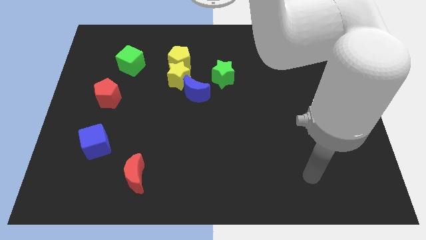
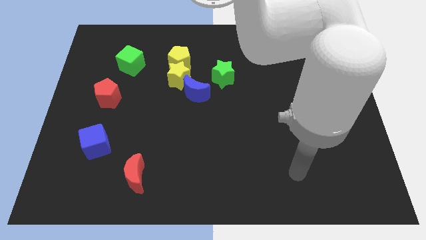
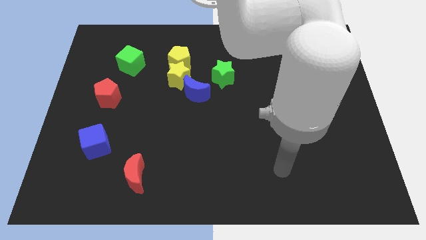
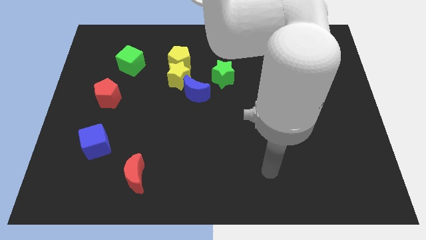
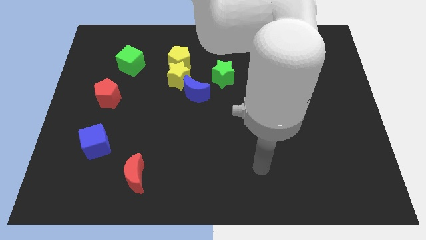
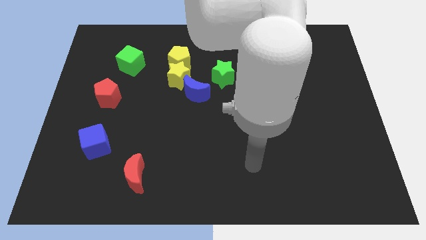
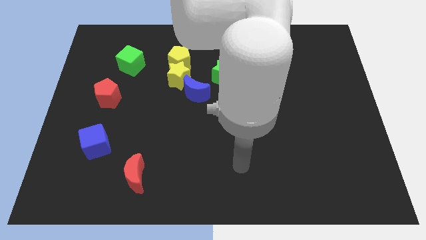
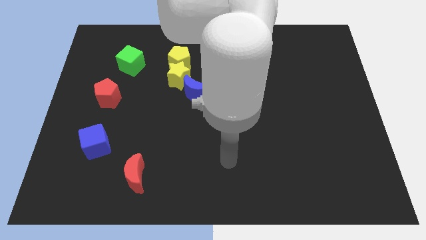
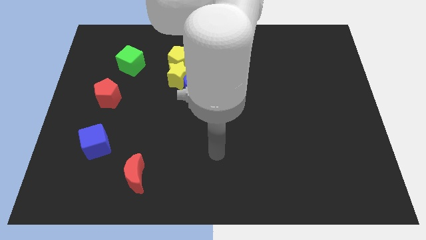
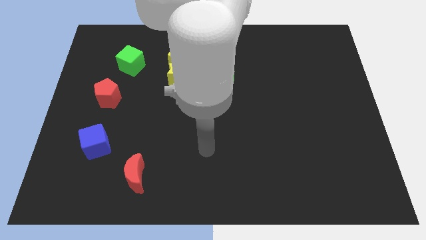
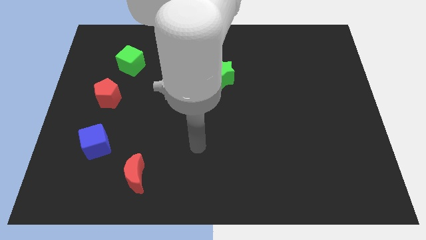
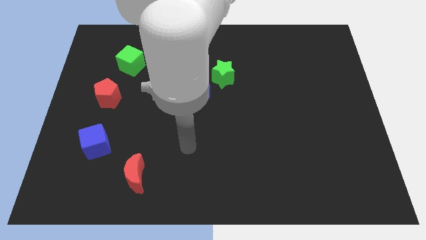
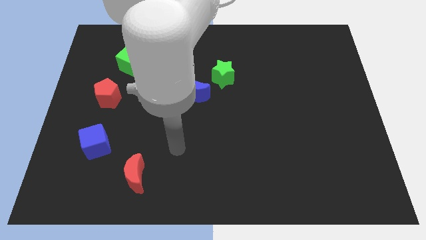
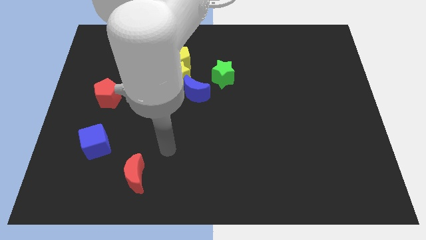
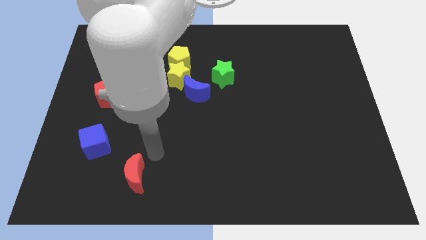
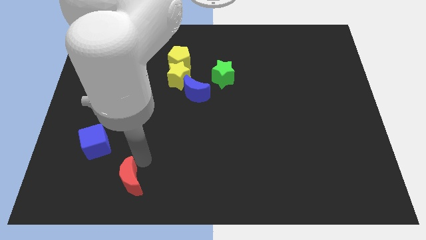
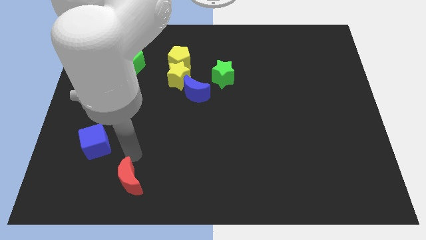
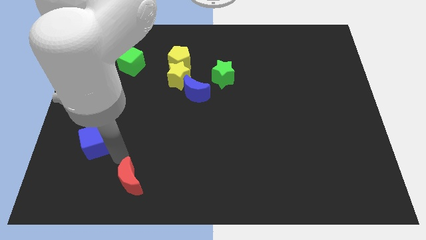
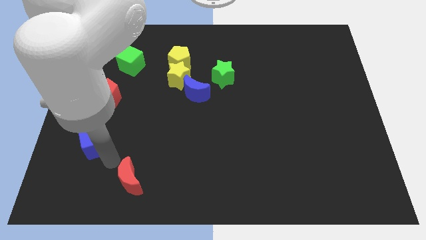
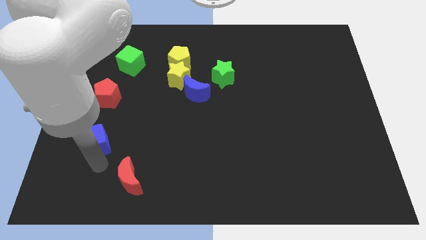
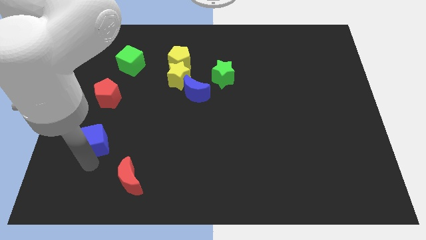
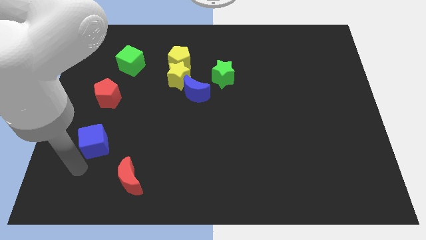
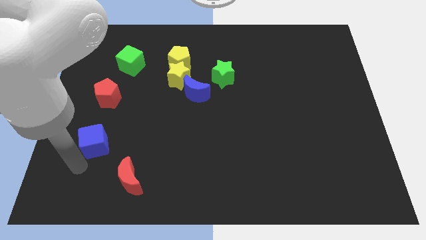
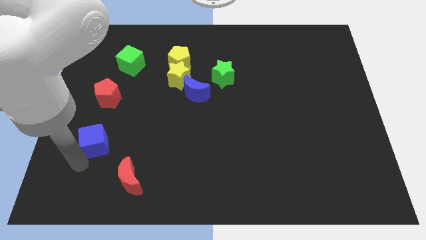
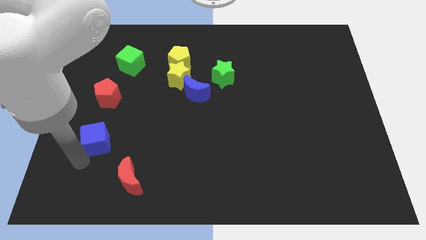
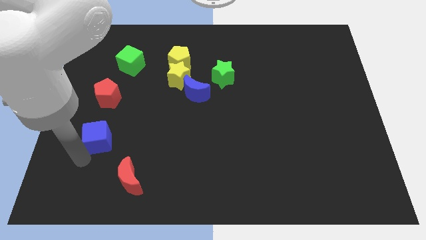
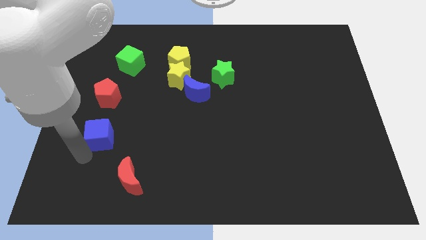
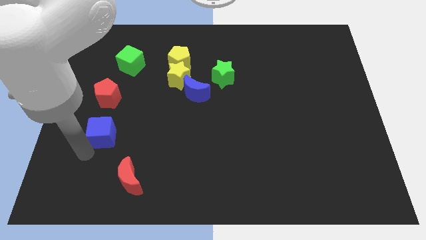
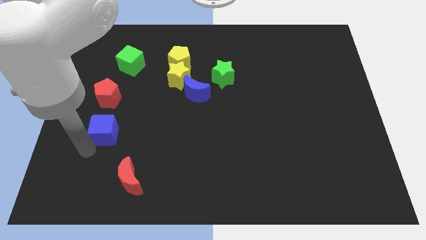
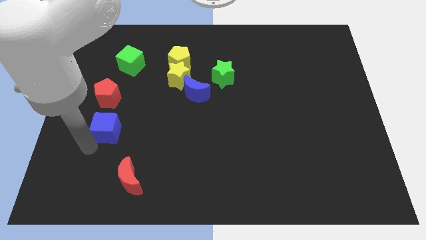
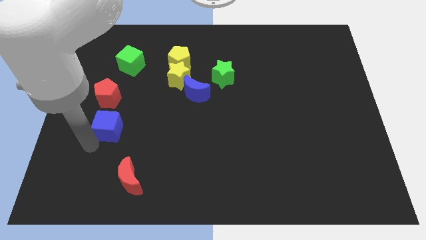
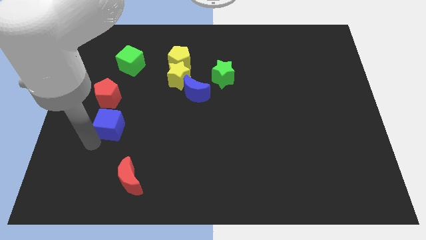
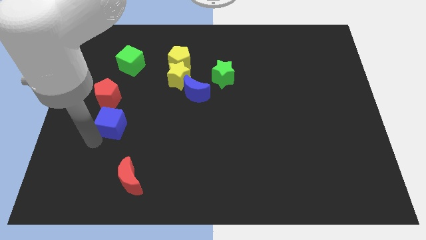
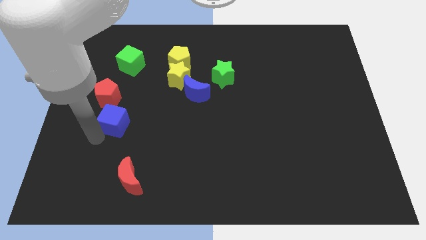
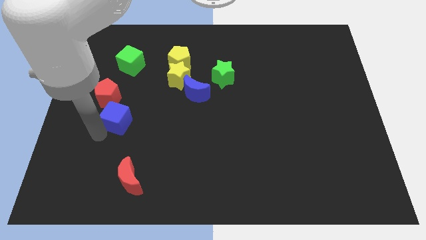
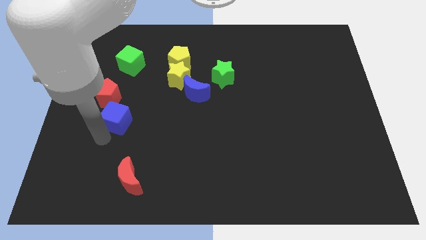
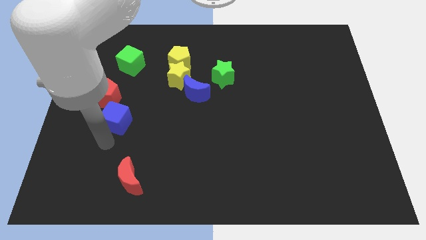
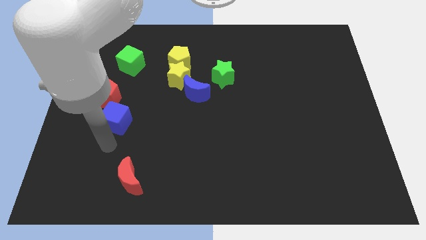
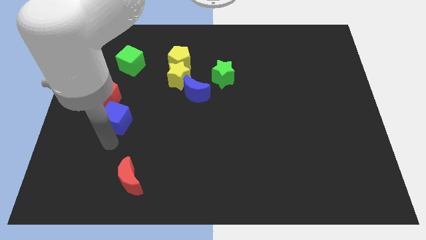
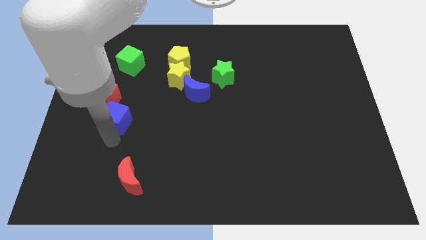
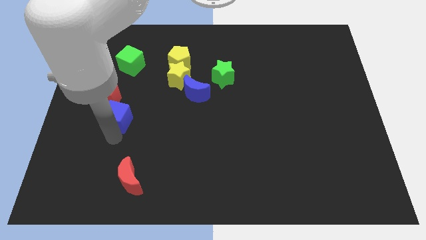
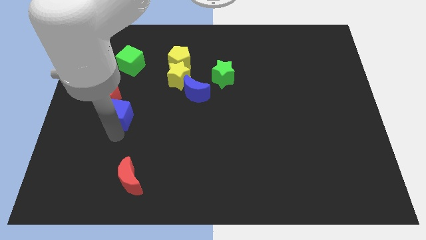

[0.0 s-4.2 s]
slightly move the blue cube upwards

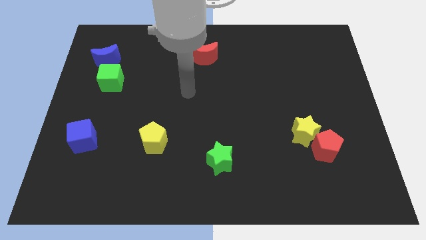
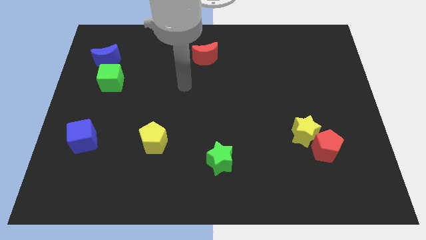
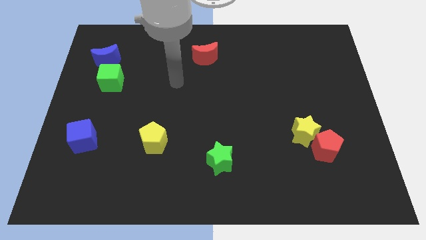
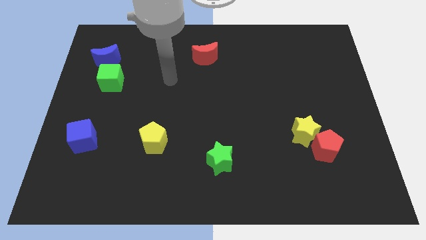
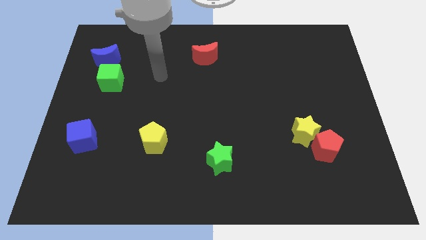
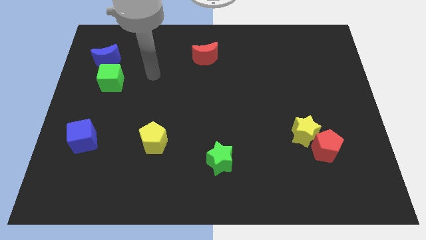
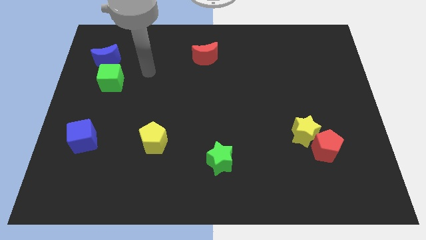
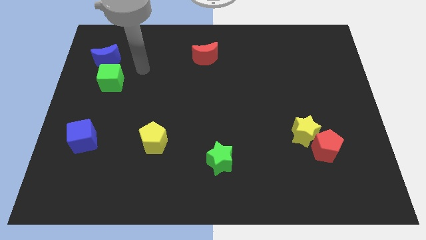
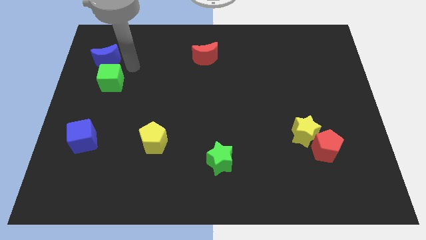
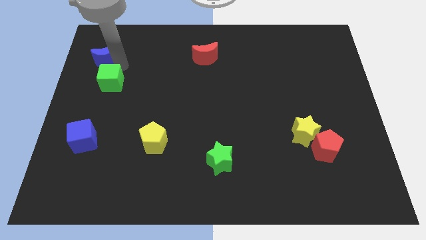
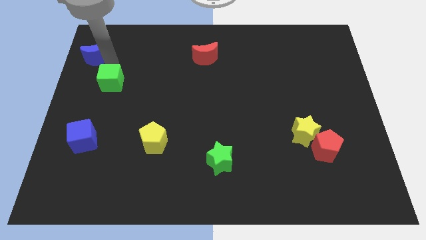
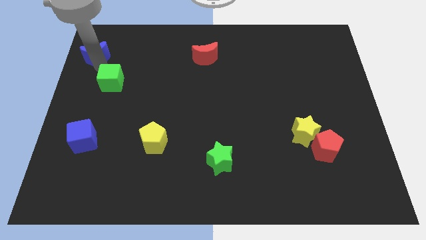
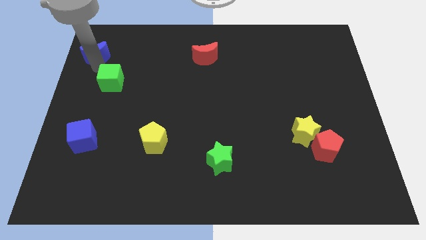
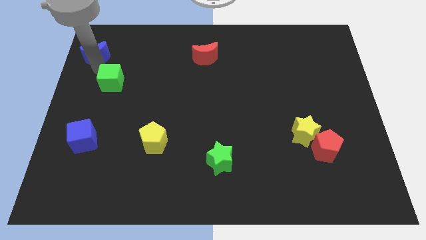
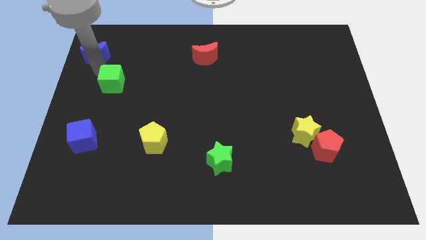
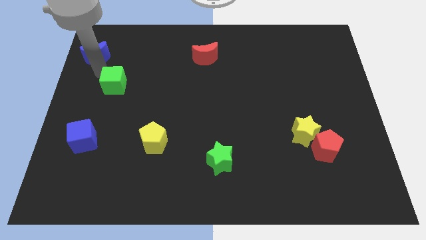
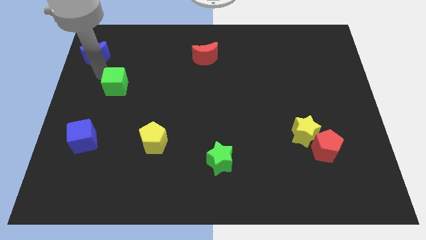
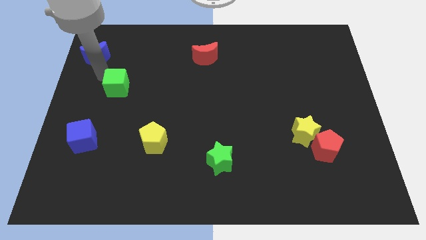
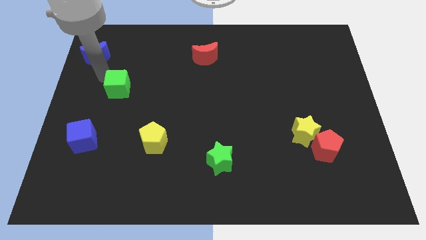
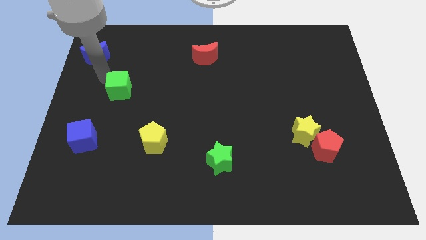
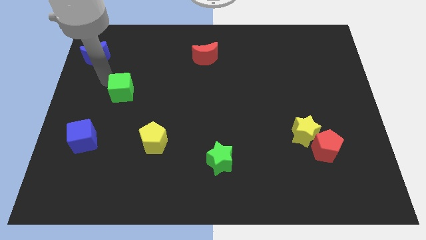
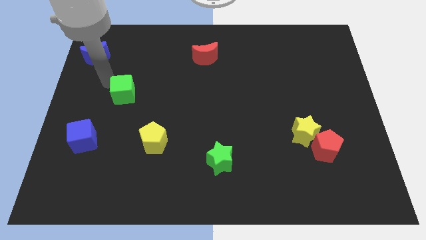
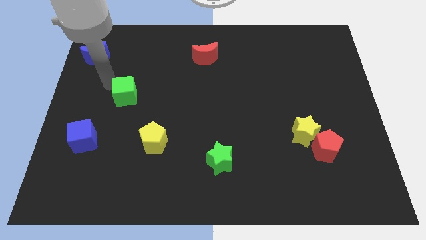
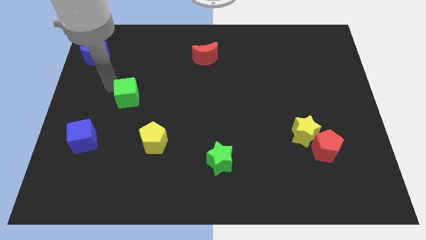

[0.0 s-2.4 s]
slightly move the green cube diagonally down and right

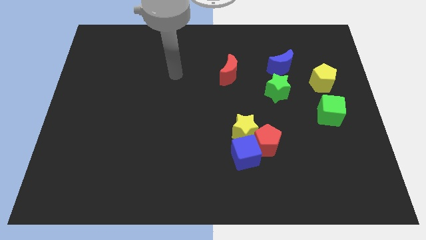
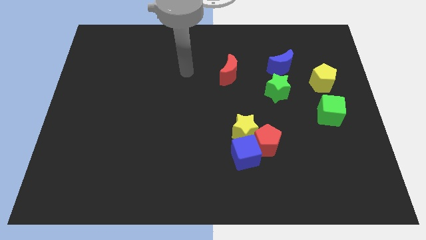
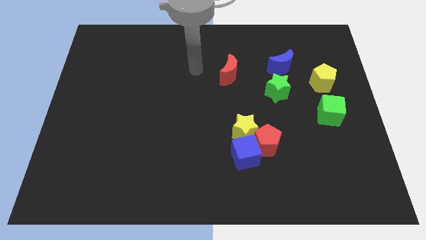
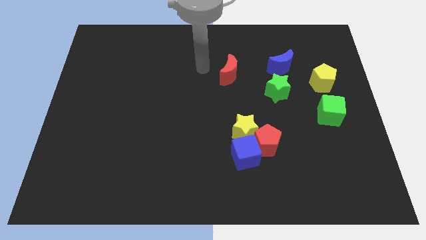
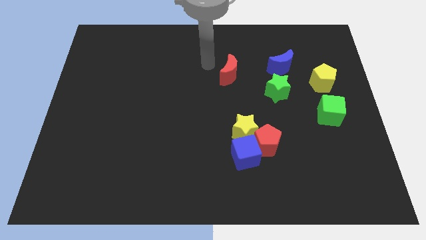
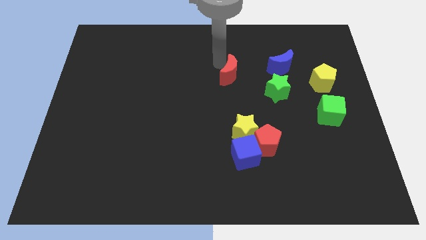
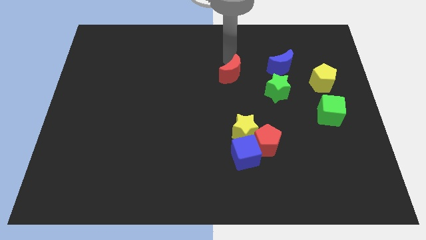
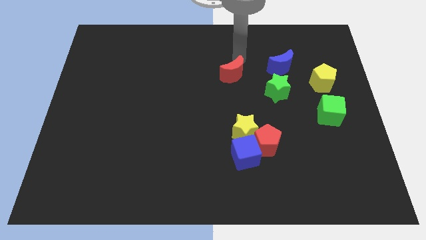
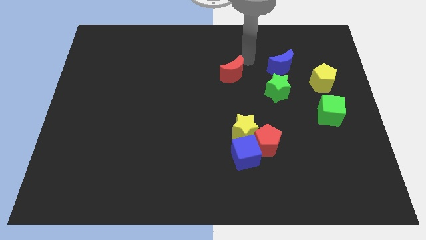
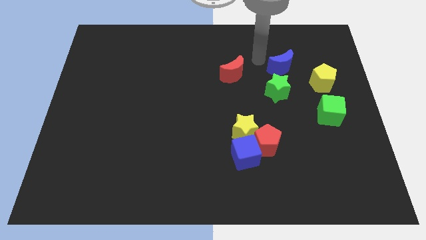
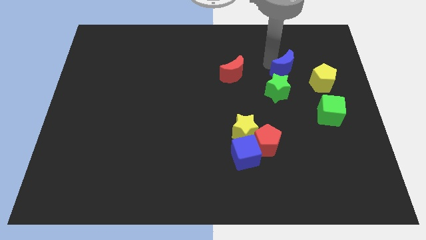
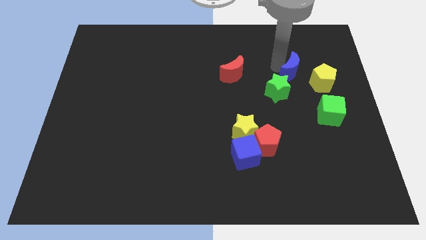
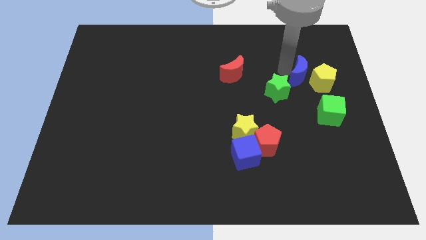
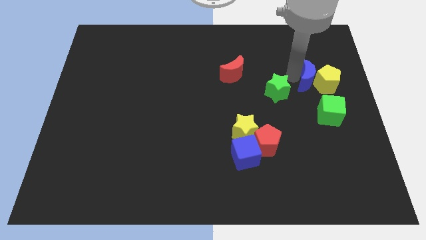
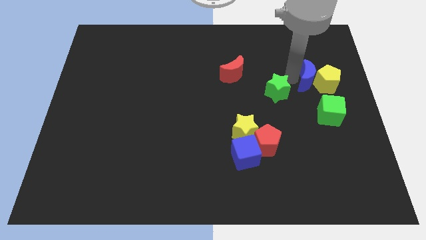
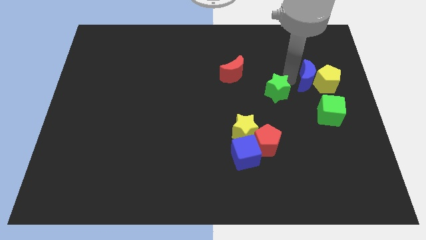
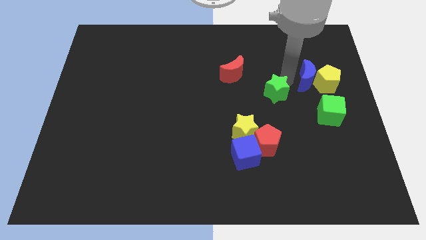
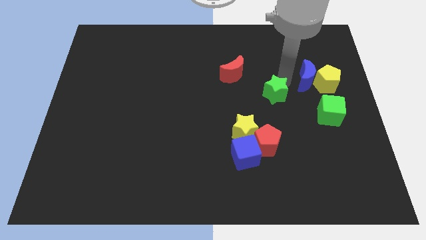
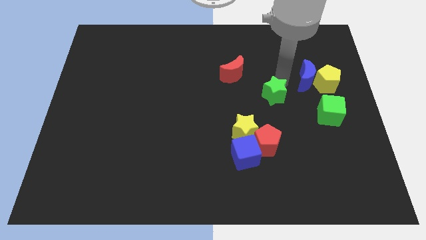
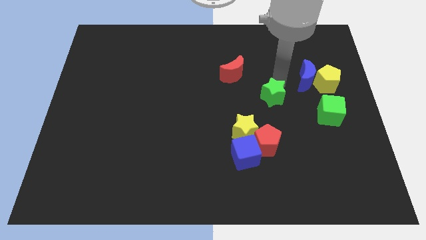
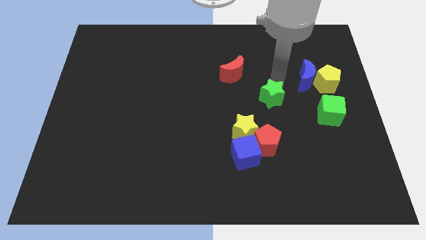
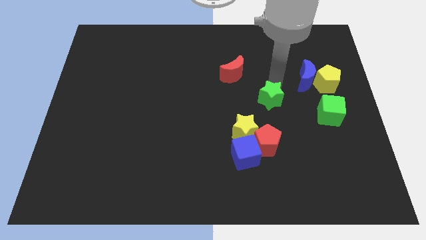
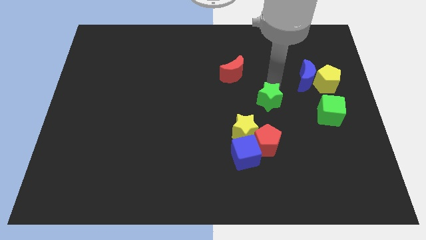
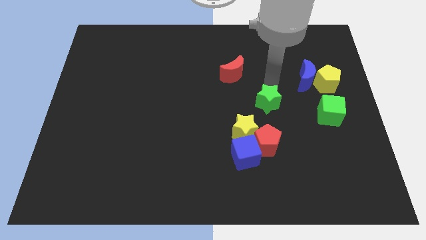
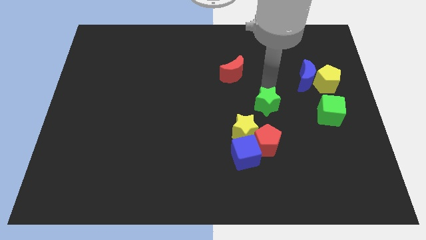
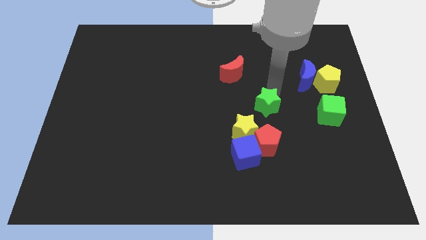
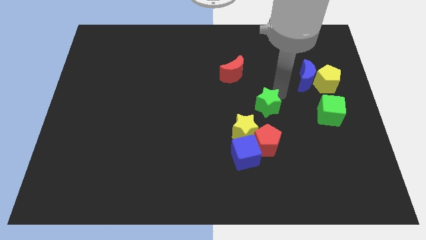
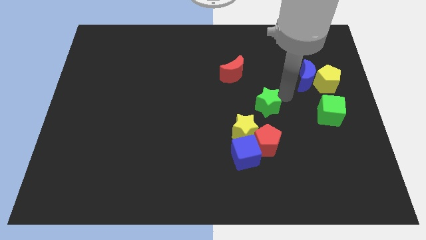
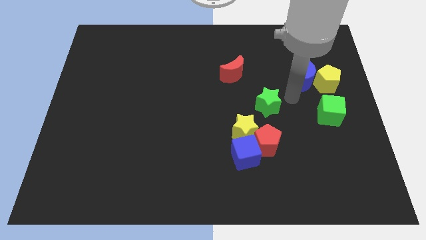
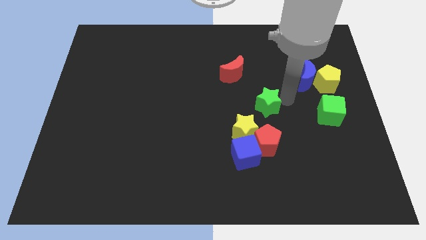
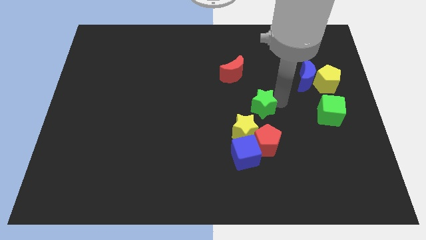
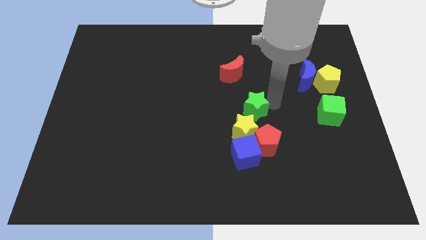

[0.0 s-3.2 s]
move the green star a little bit diagonally down and left
